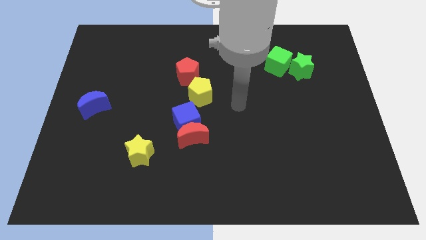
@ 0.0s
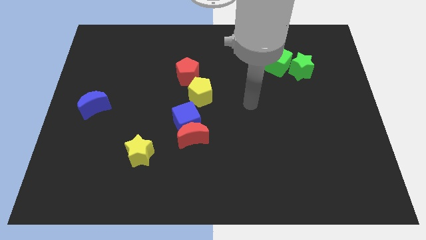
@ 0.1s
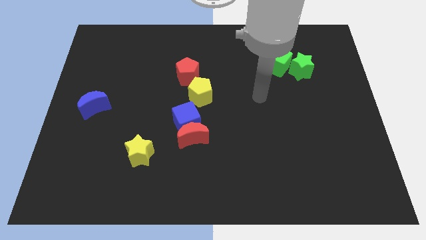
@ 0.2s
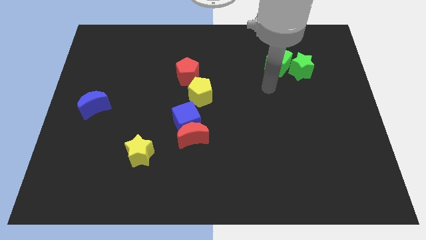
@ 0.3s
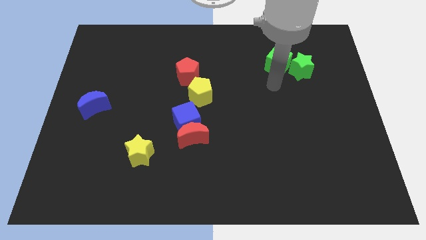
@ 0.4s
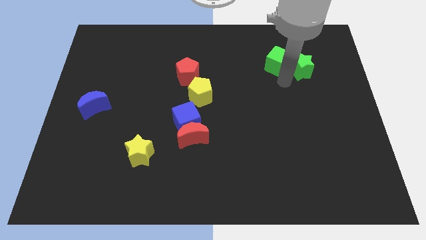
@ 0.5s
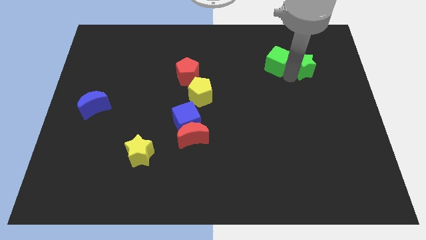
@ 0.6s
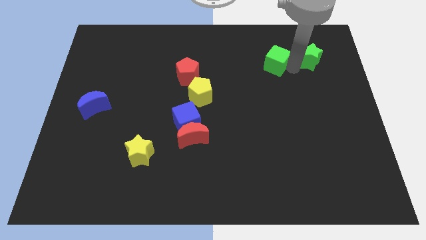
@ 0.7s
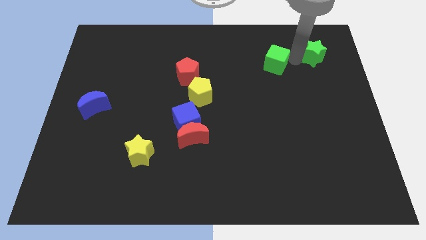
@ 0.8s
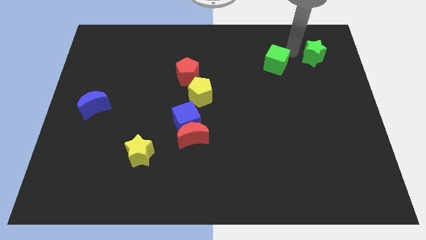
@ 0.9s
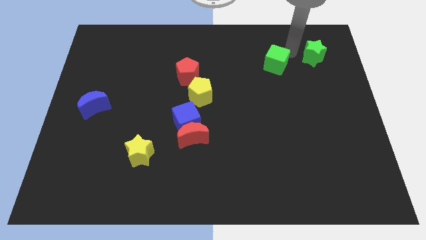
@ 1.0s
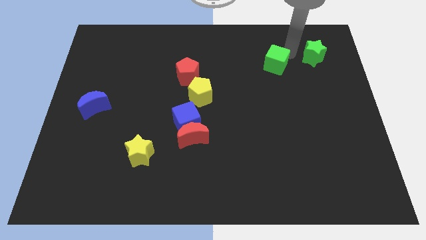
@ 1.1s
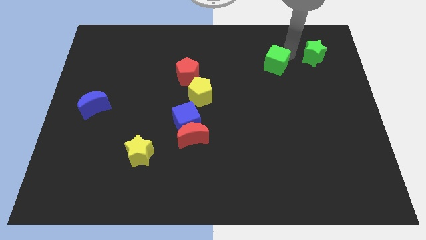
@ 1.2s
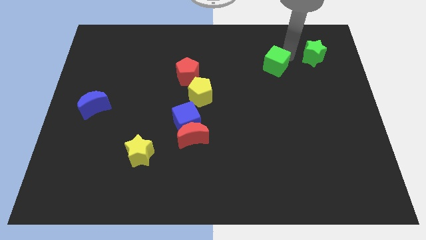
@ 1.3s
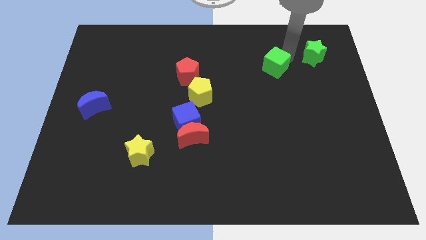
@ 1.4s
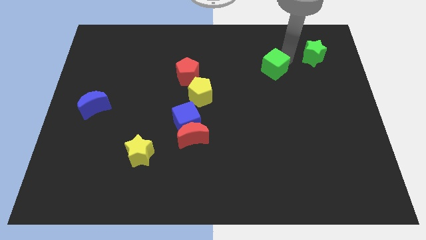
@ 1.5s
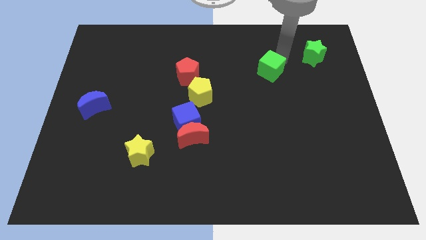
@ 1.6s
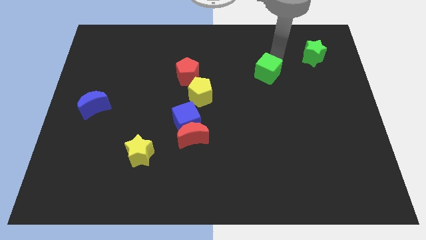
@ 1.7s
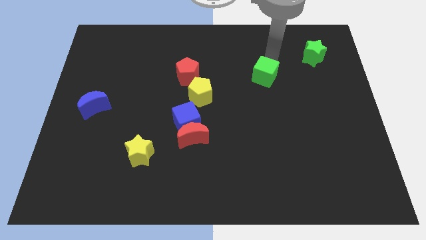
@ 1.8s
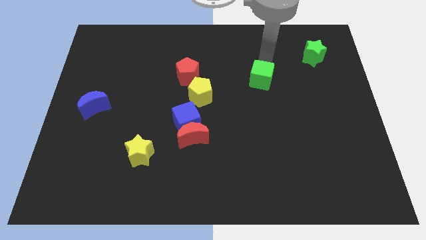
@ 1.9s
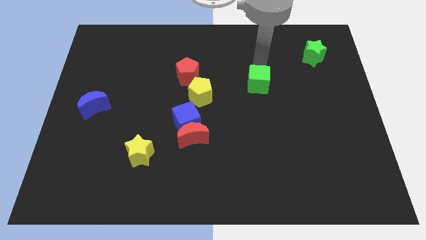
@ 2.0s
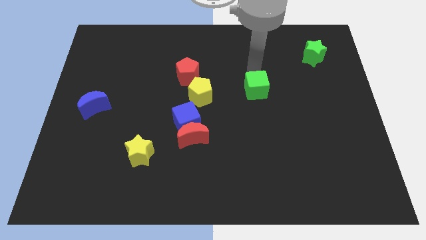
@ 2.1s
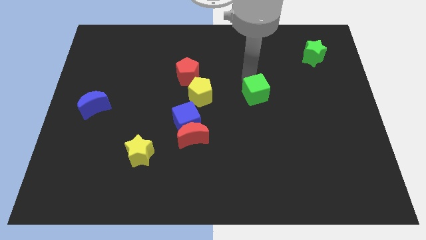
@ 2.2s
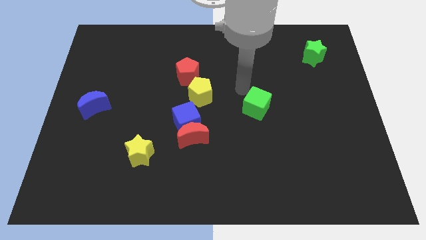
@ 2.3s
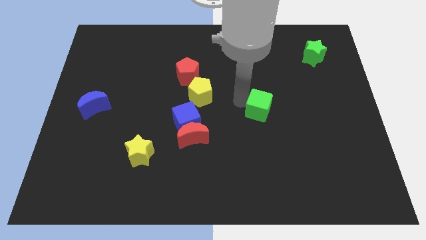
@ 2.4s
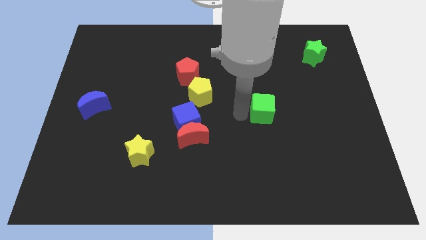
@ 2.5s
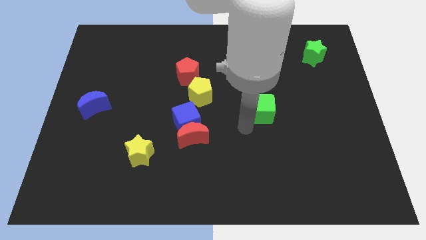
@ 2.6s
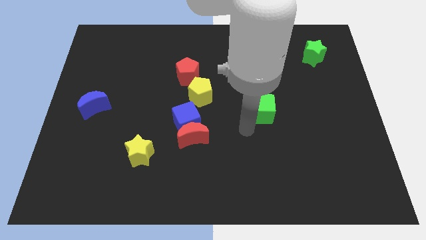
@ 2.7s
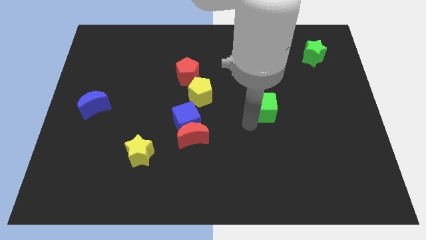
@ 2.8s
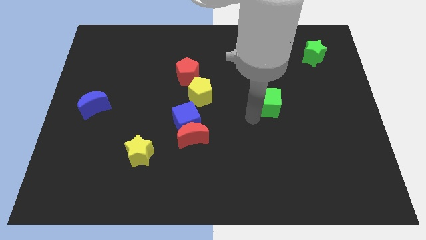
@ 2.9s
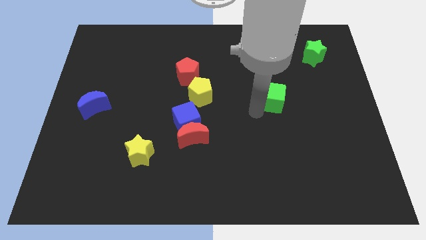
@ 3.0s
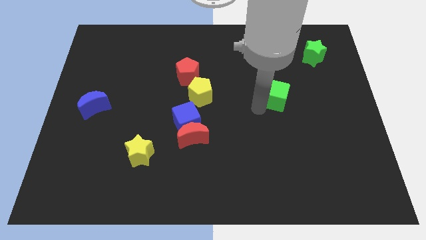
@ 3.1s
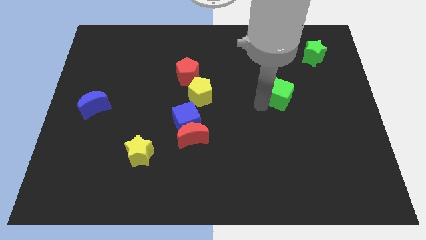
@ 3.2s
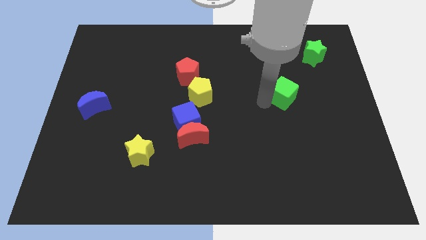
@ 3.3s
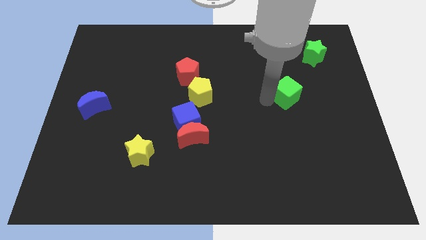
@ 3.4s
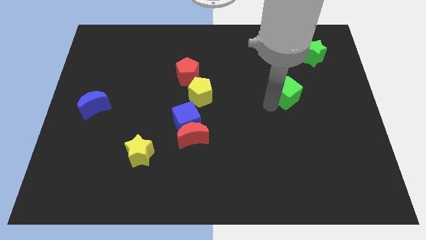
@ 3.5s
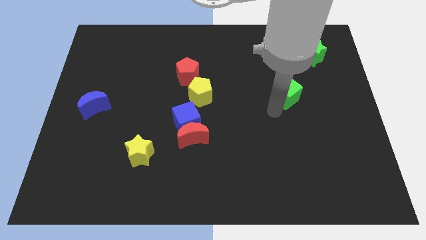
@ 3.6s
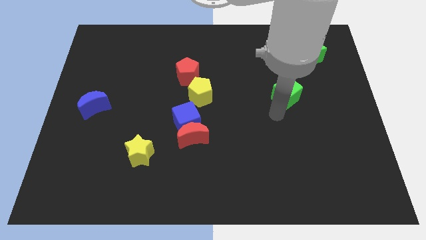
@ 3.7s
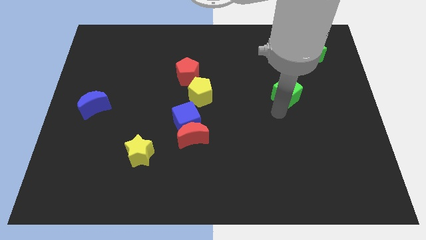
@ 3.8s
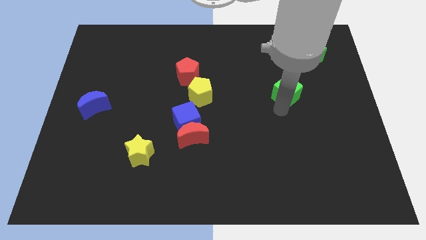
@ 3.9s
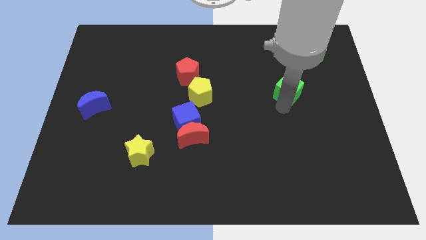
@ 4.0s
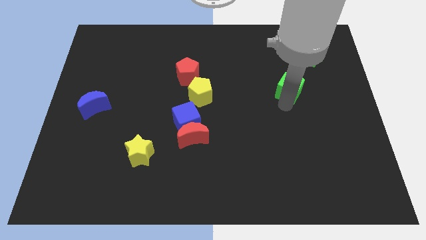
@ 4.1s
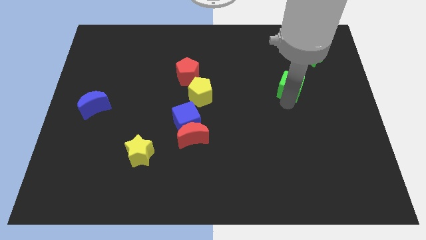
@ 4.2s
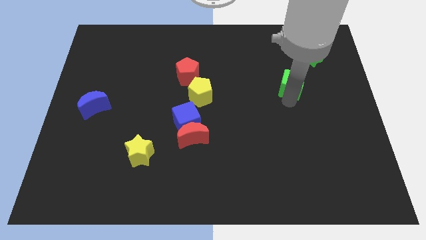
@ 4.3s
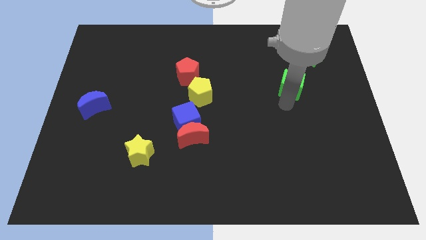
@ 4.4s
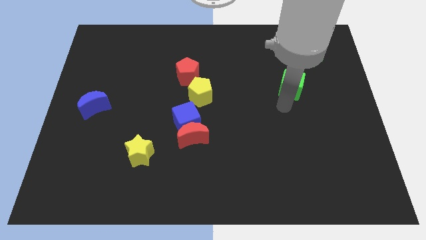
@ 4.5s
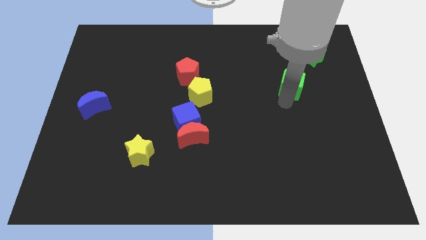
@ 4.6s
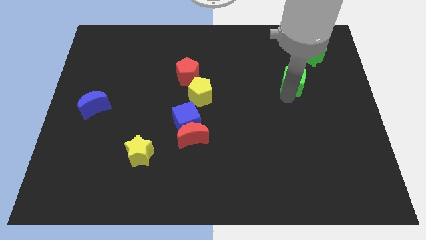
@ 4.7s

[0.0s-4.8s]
slide the green cube diagonally down and to the left of the green star

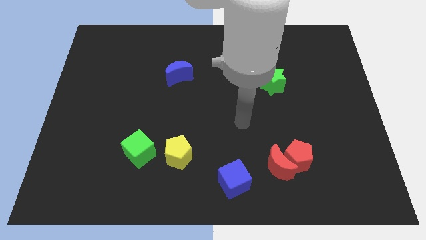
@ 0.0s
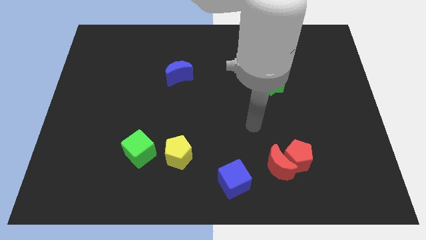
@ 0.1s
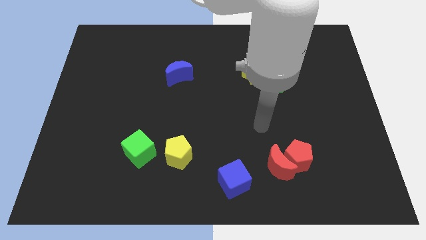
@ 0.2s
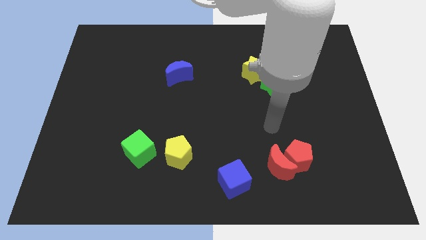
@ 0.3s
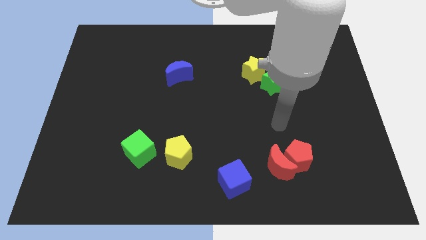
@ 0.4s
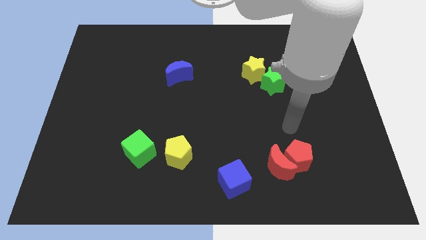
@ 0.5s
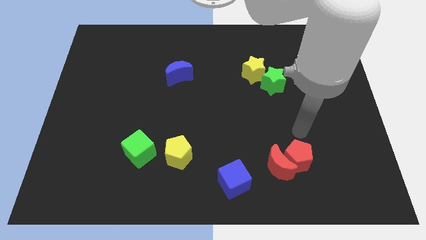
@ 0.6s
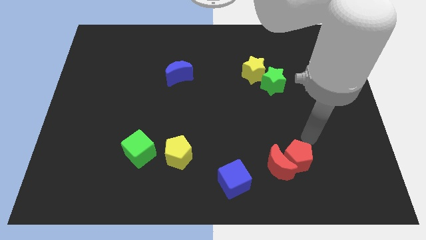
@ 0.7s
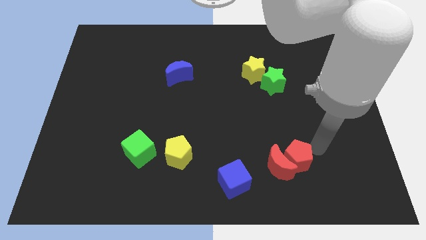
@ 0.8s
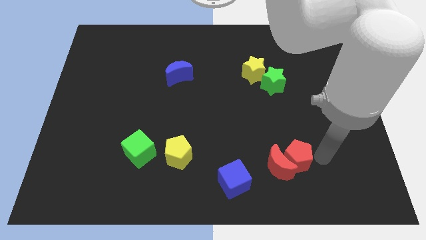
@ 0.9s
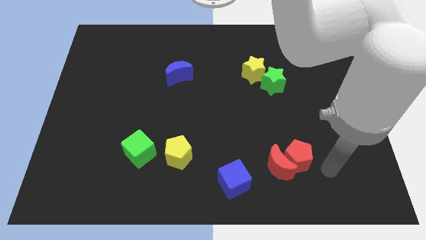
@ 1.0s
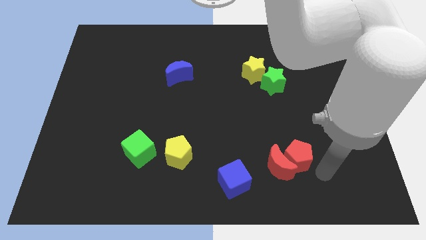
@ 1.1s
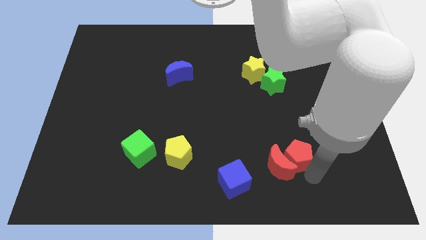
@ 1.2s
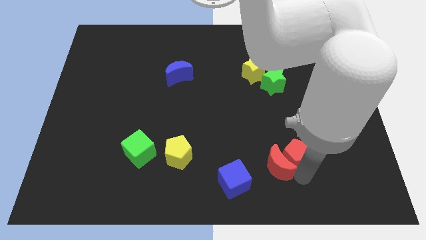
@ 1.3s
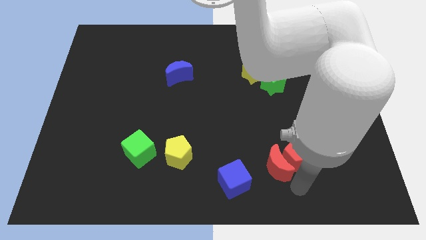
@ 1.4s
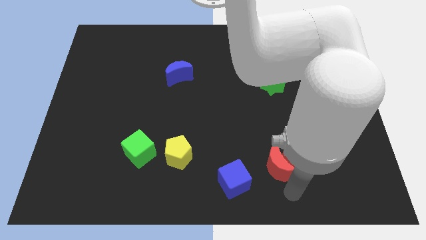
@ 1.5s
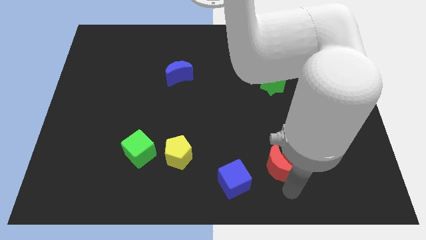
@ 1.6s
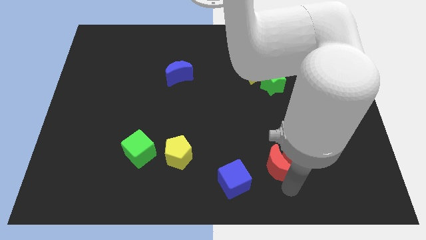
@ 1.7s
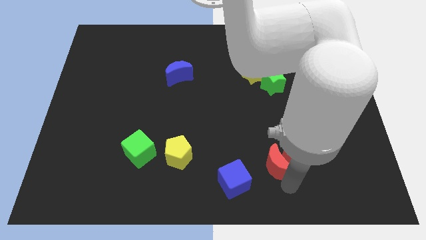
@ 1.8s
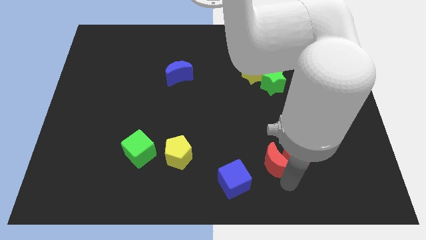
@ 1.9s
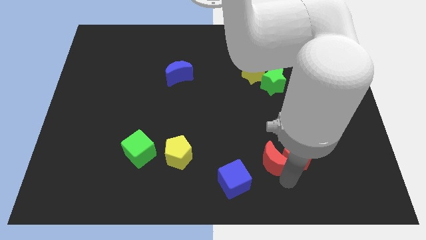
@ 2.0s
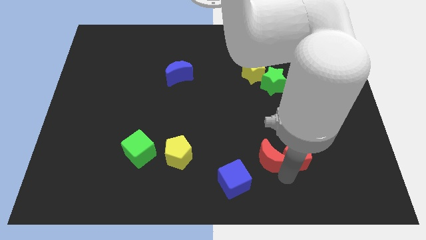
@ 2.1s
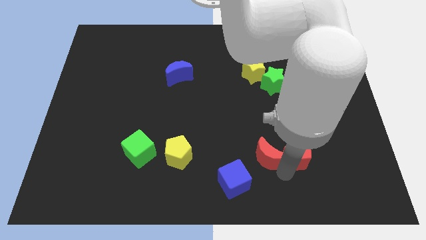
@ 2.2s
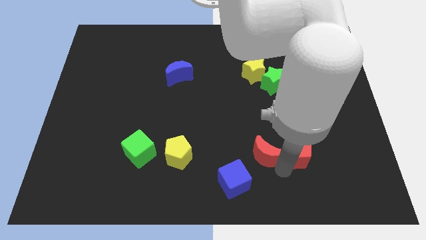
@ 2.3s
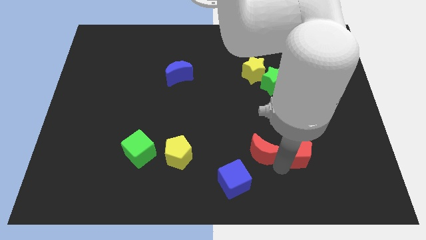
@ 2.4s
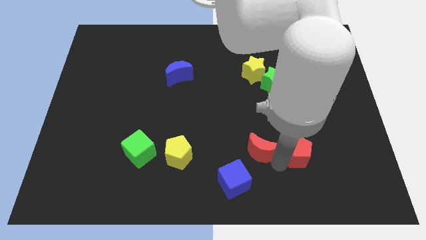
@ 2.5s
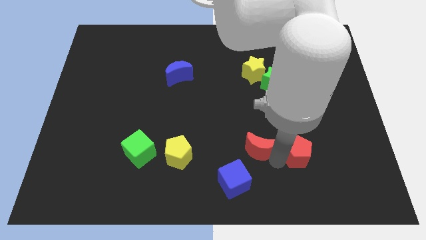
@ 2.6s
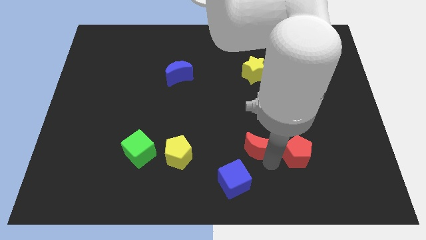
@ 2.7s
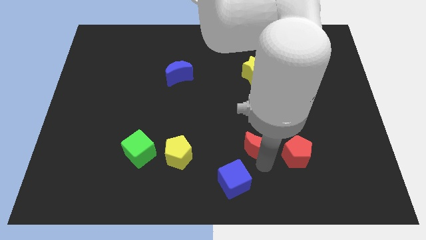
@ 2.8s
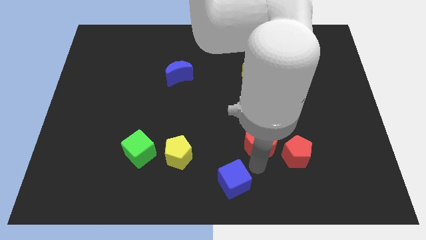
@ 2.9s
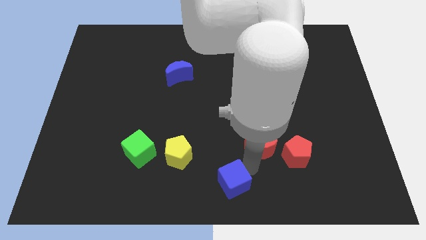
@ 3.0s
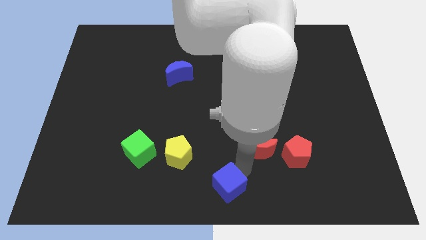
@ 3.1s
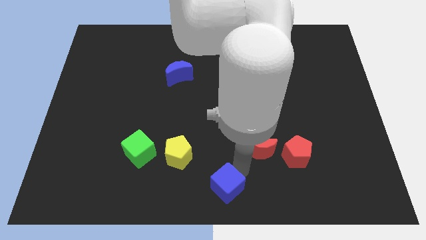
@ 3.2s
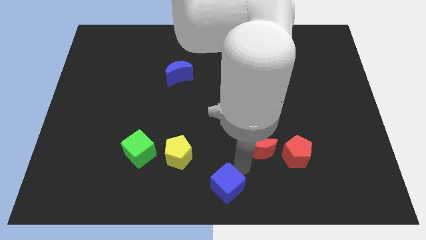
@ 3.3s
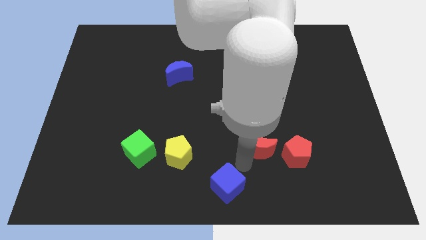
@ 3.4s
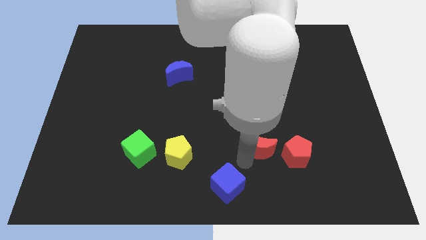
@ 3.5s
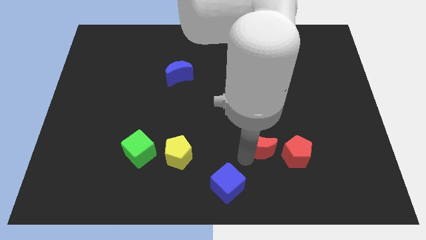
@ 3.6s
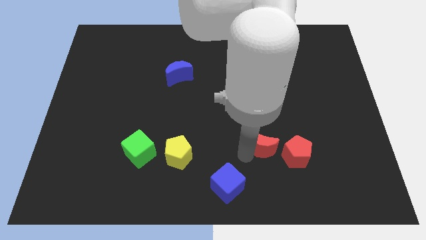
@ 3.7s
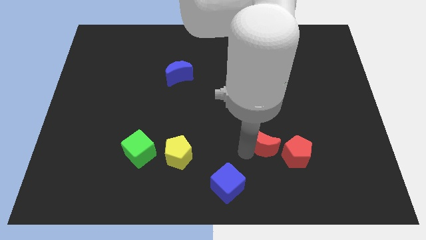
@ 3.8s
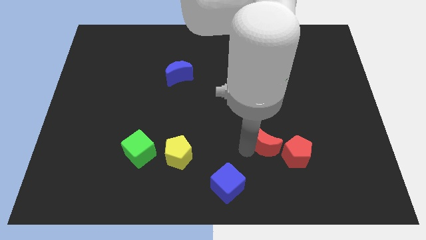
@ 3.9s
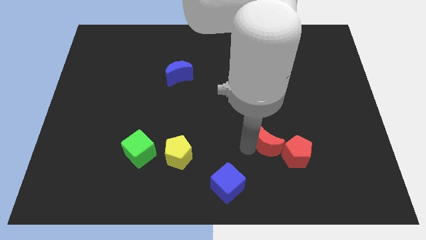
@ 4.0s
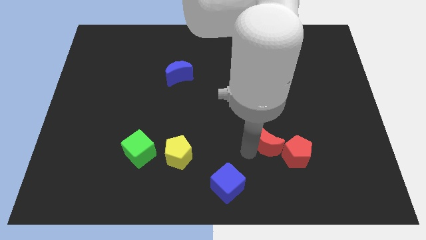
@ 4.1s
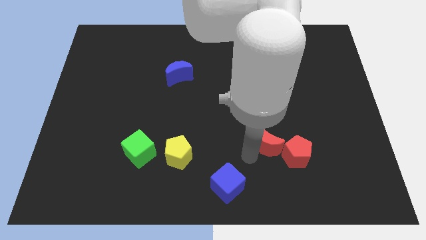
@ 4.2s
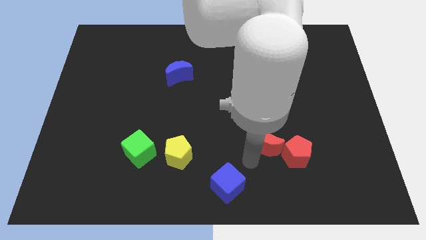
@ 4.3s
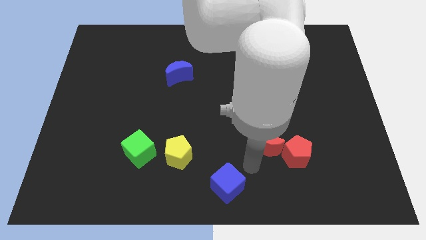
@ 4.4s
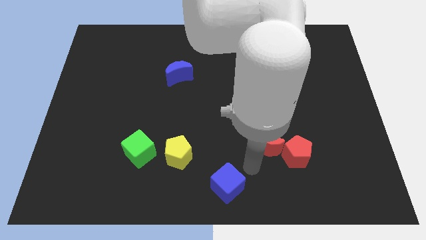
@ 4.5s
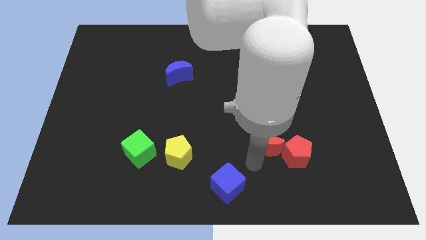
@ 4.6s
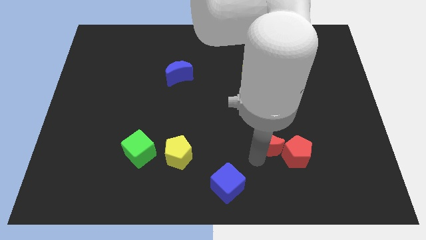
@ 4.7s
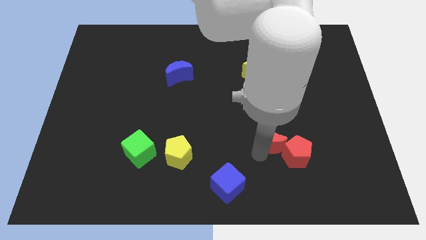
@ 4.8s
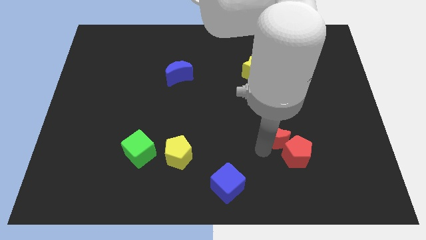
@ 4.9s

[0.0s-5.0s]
push the red moon below the green star
